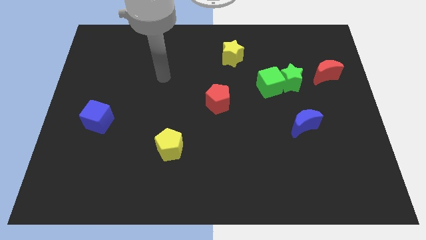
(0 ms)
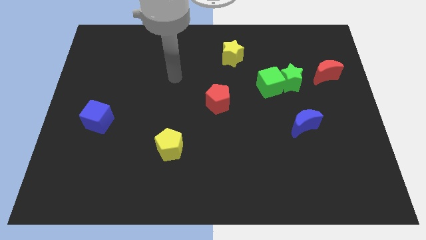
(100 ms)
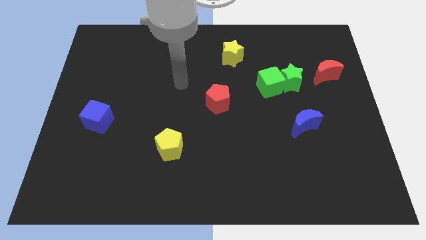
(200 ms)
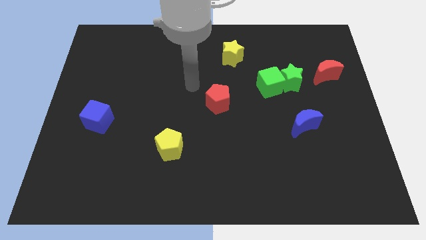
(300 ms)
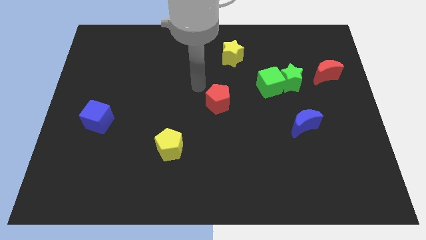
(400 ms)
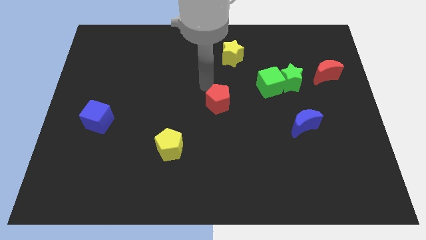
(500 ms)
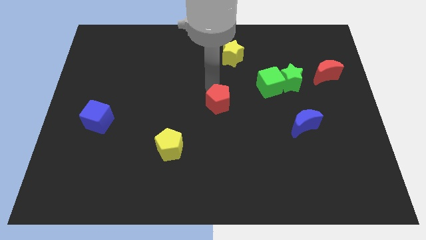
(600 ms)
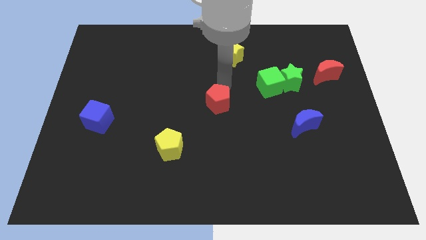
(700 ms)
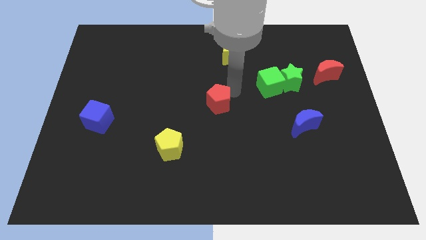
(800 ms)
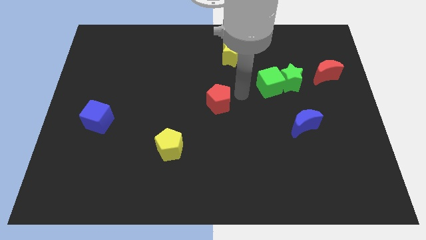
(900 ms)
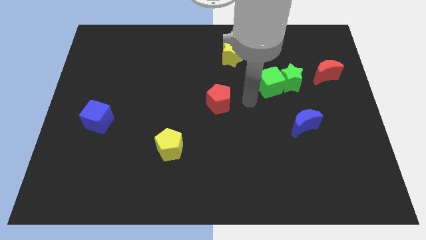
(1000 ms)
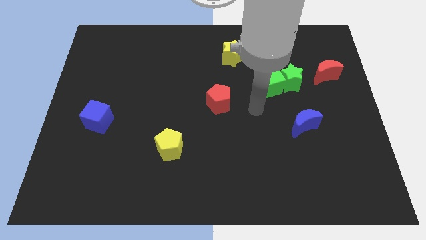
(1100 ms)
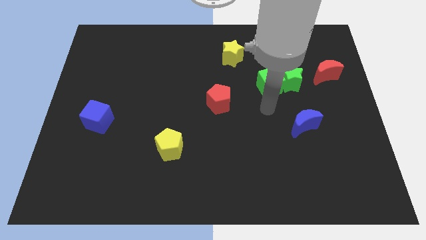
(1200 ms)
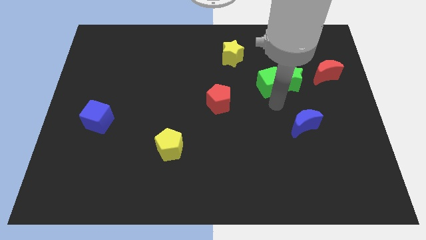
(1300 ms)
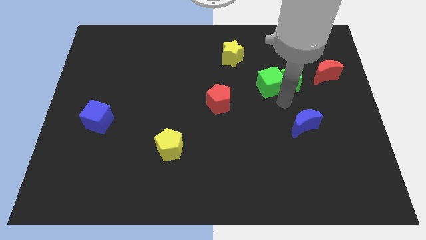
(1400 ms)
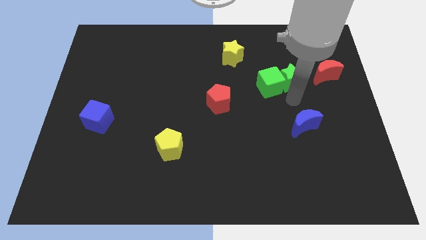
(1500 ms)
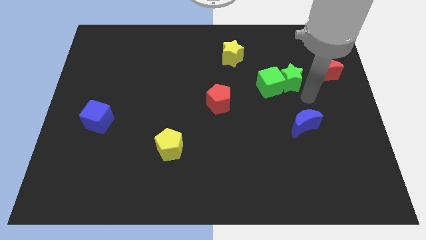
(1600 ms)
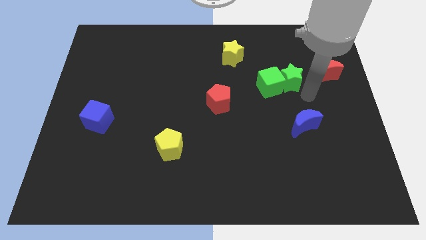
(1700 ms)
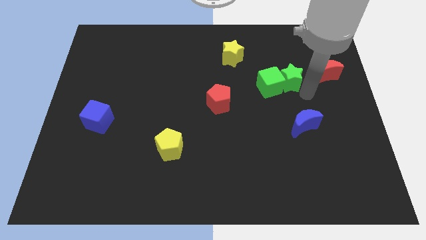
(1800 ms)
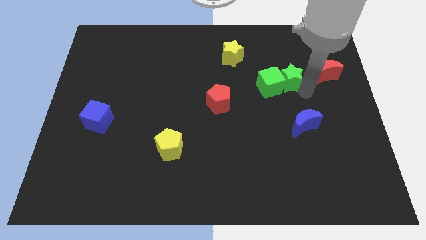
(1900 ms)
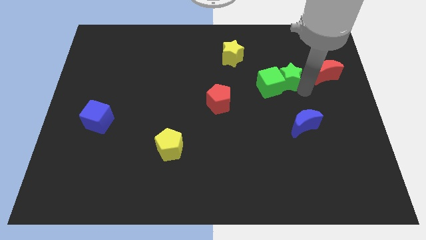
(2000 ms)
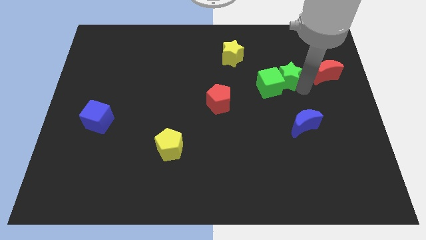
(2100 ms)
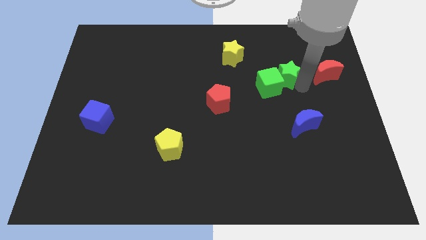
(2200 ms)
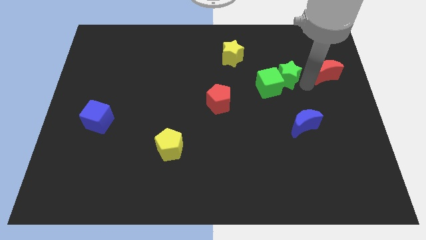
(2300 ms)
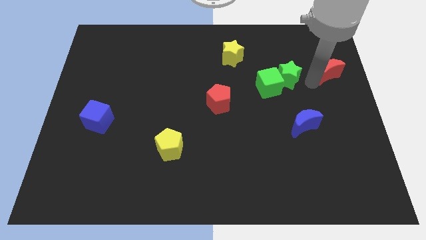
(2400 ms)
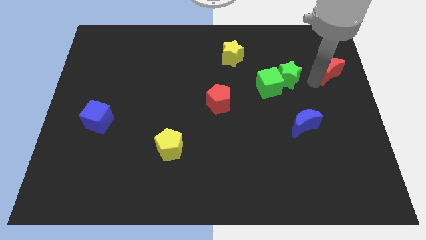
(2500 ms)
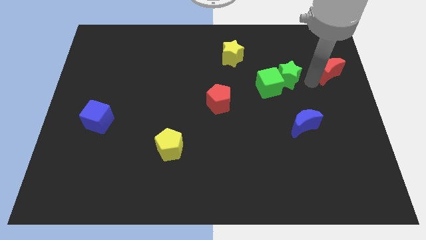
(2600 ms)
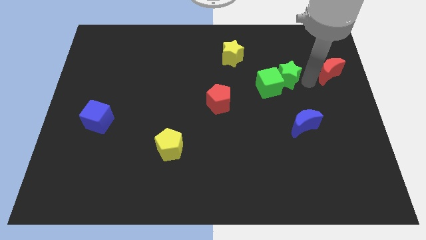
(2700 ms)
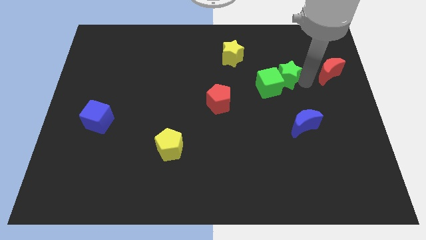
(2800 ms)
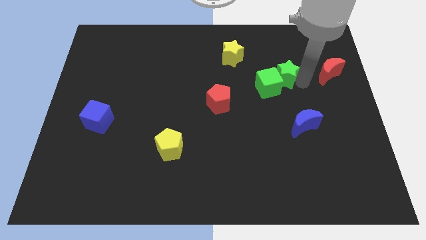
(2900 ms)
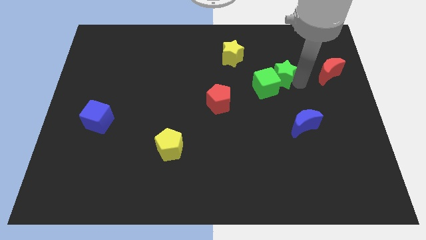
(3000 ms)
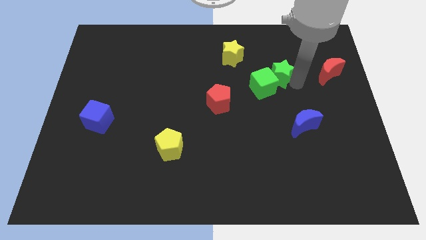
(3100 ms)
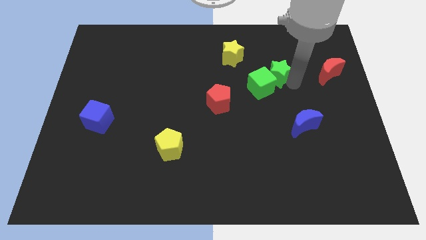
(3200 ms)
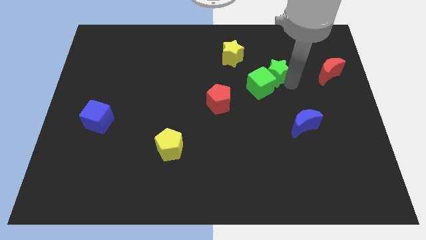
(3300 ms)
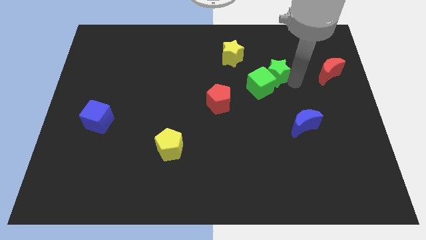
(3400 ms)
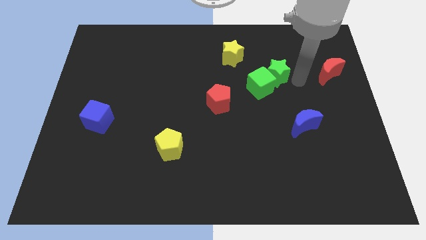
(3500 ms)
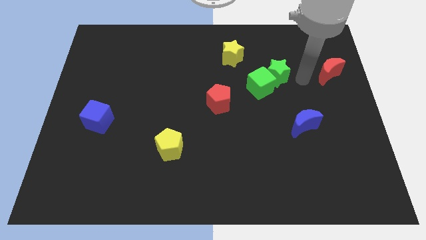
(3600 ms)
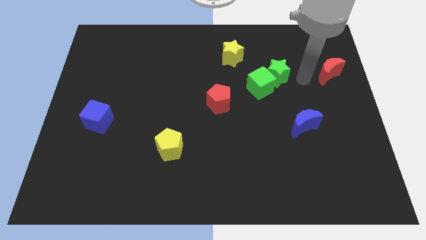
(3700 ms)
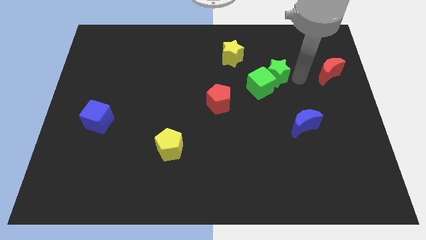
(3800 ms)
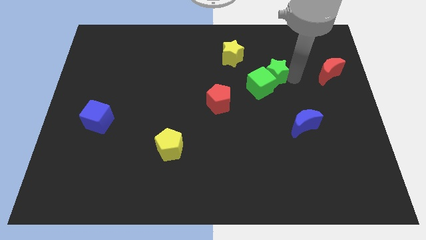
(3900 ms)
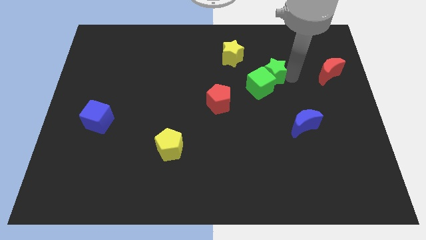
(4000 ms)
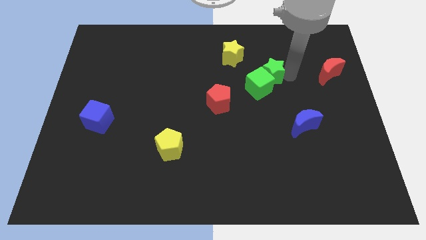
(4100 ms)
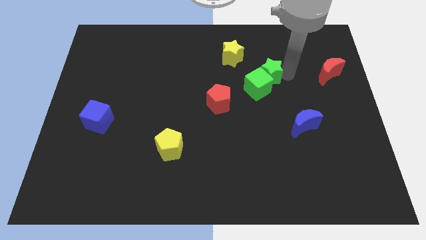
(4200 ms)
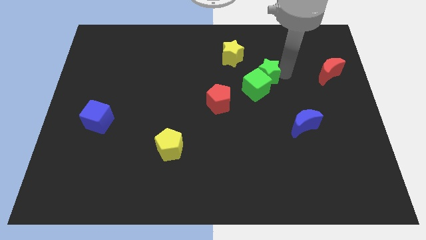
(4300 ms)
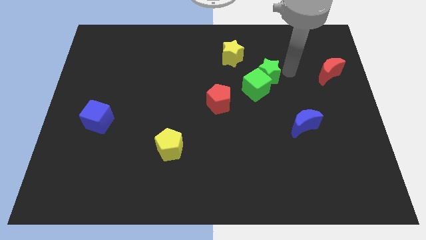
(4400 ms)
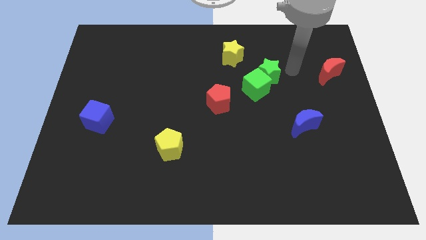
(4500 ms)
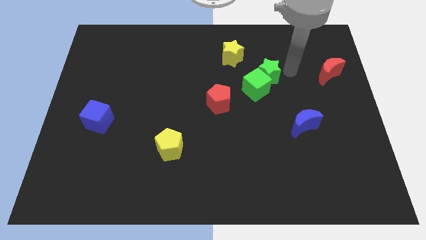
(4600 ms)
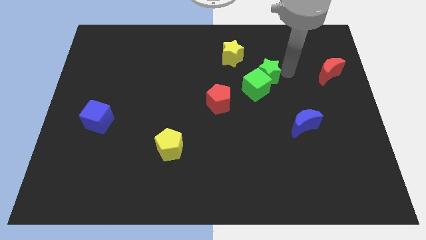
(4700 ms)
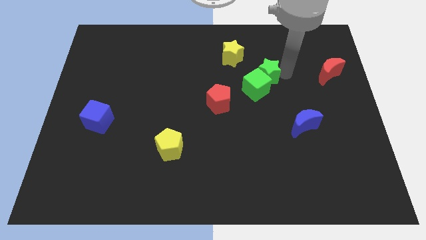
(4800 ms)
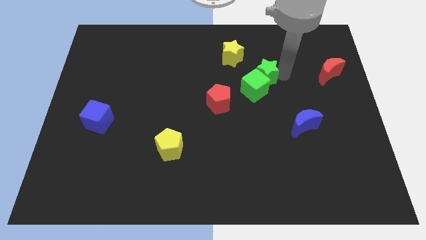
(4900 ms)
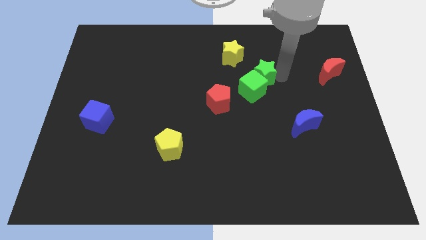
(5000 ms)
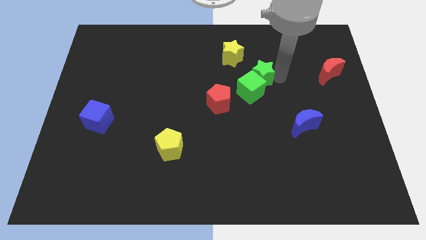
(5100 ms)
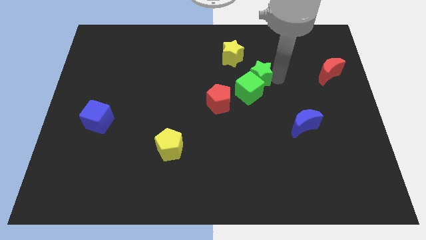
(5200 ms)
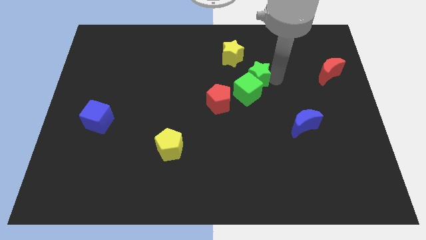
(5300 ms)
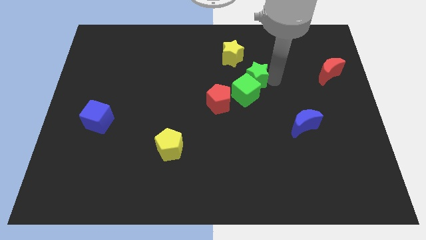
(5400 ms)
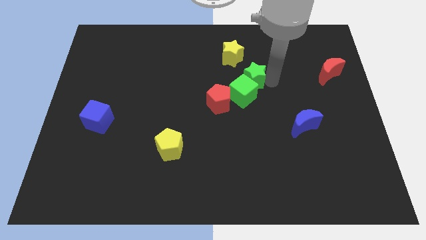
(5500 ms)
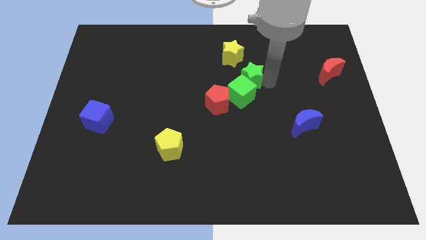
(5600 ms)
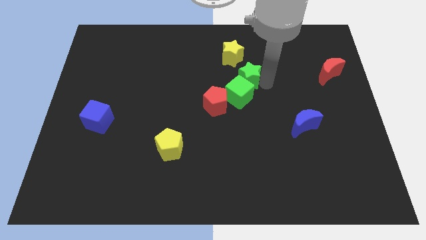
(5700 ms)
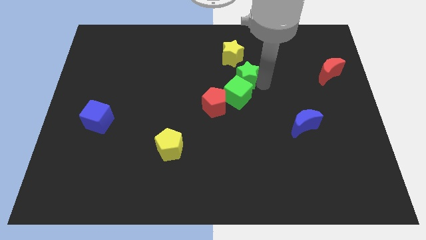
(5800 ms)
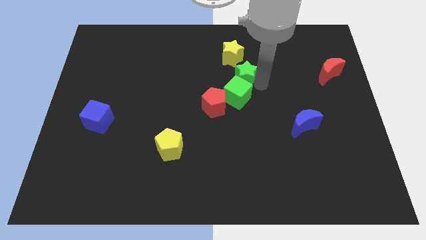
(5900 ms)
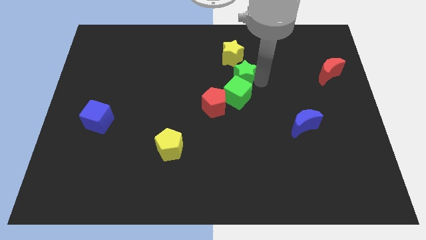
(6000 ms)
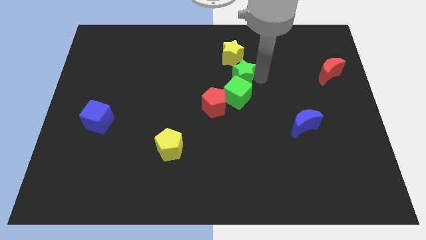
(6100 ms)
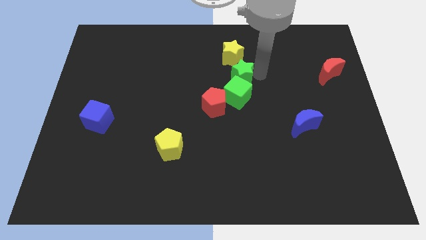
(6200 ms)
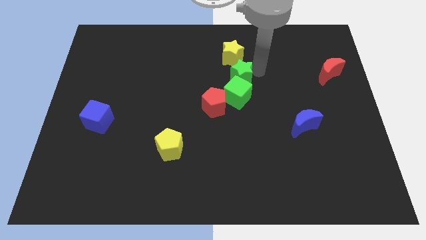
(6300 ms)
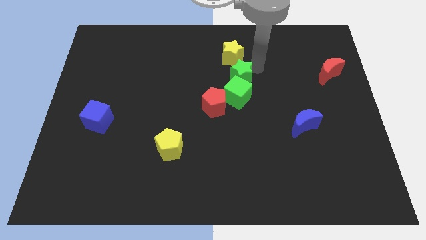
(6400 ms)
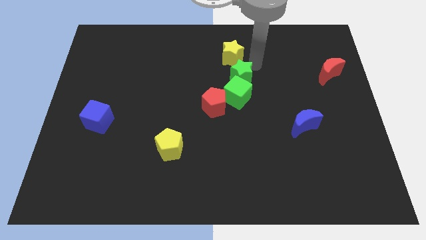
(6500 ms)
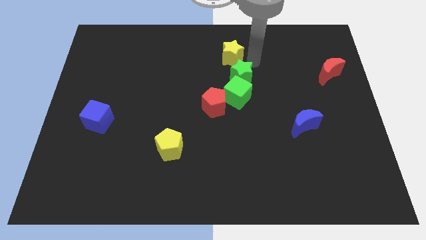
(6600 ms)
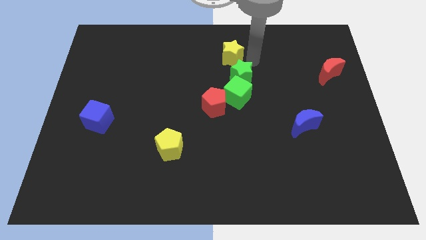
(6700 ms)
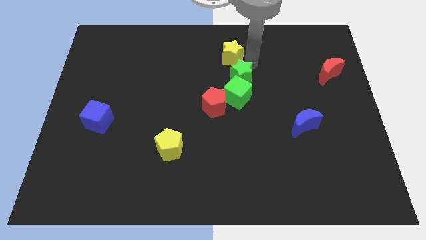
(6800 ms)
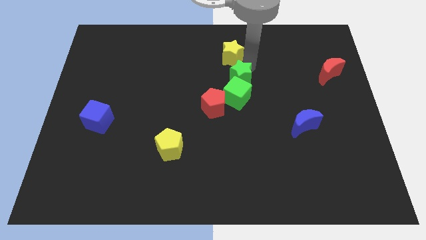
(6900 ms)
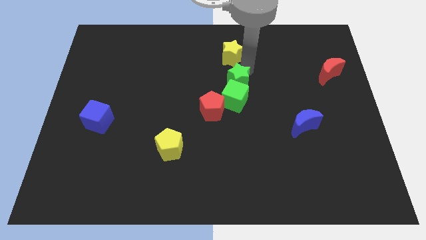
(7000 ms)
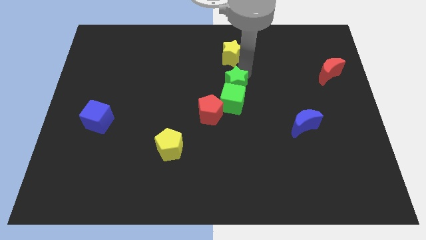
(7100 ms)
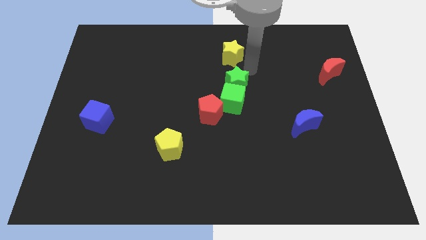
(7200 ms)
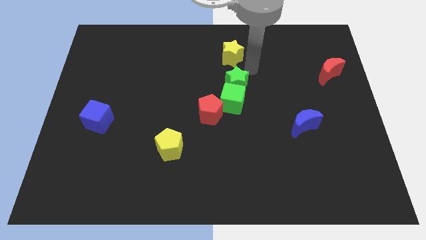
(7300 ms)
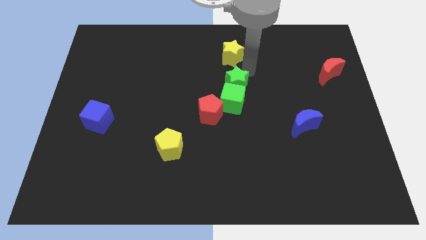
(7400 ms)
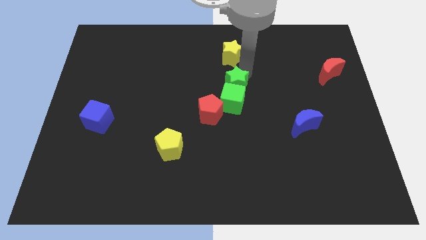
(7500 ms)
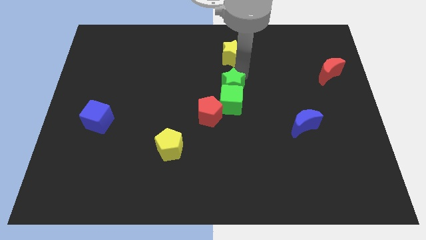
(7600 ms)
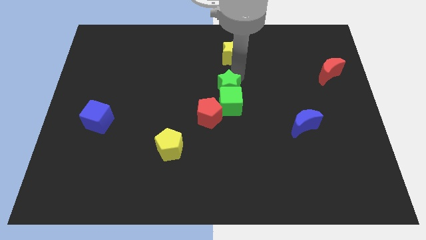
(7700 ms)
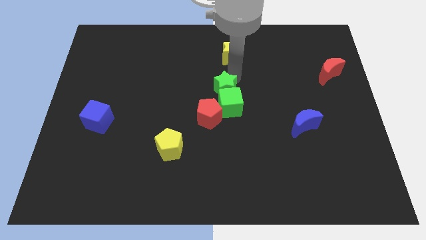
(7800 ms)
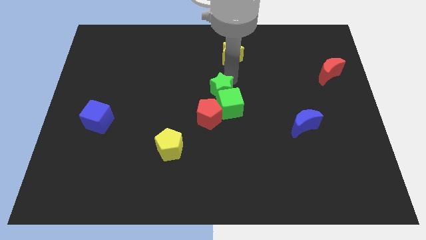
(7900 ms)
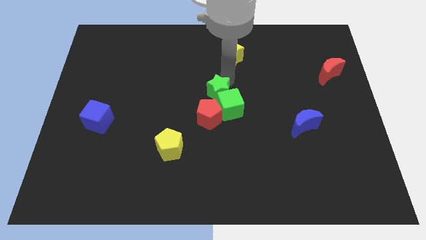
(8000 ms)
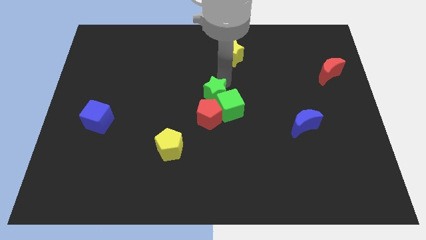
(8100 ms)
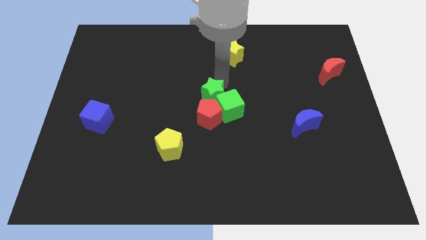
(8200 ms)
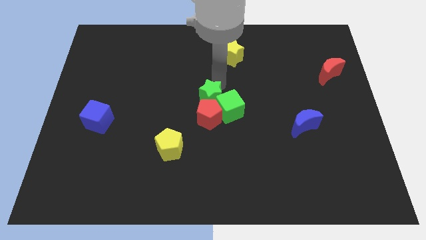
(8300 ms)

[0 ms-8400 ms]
put the green star next to the red pentagon
